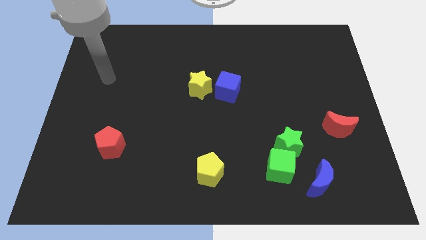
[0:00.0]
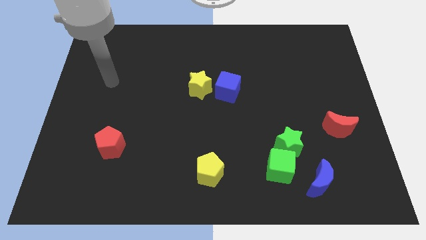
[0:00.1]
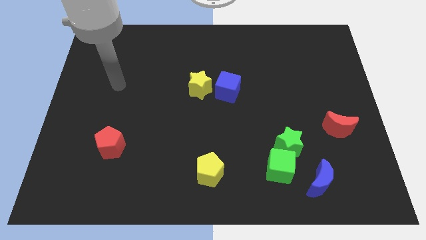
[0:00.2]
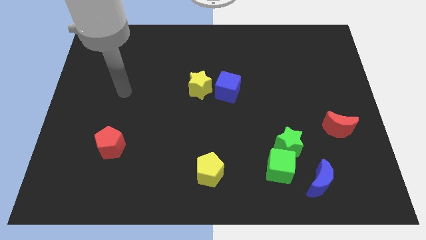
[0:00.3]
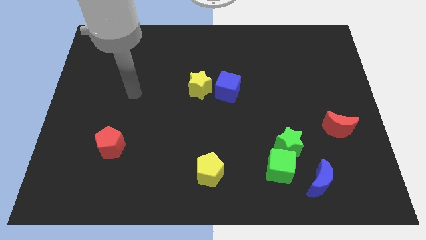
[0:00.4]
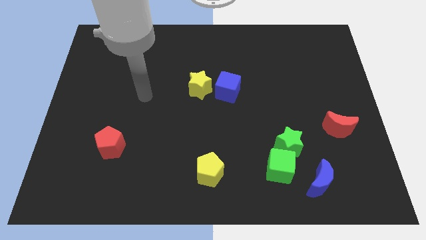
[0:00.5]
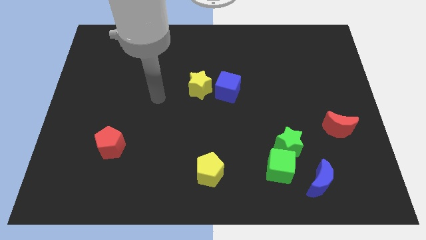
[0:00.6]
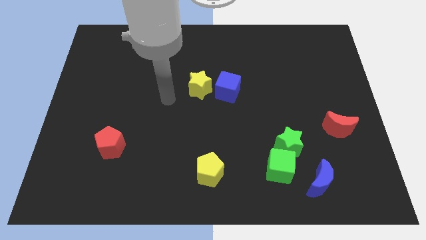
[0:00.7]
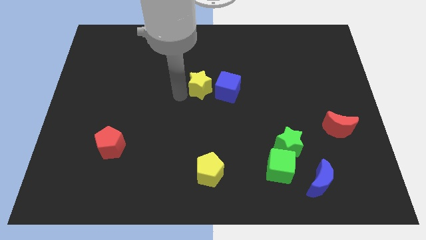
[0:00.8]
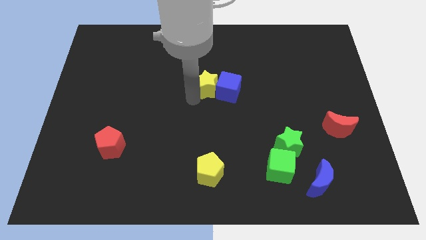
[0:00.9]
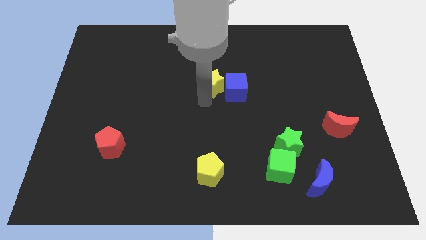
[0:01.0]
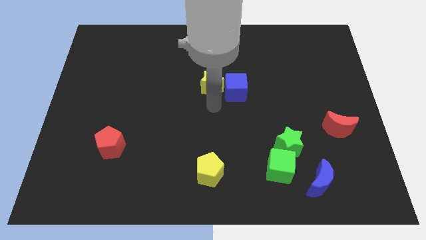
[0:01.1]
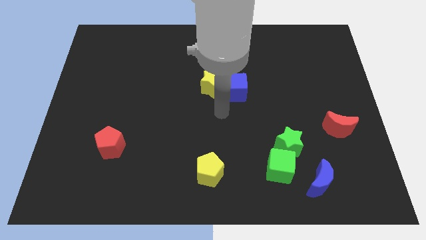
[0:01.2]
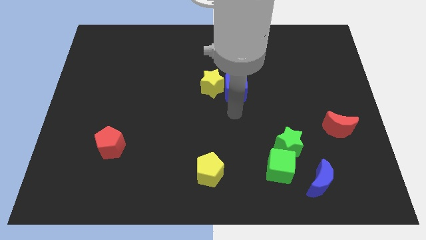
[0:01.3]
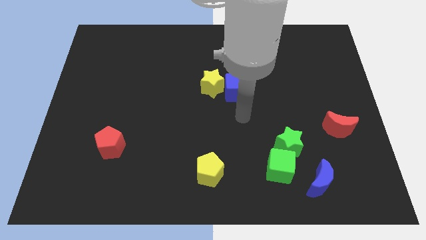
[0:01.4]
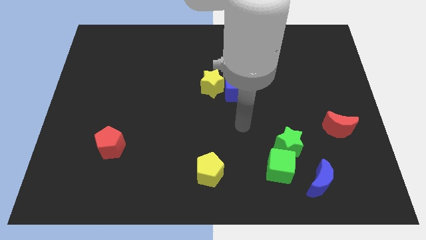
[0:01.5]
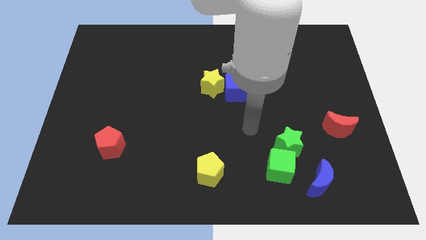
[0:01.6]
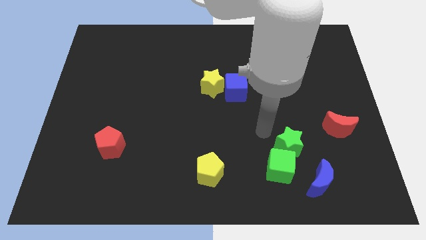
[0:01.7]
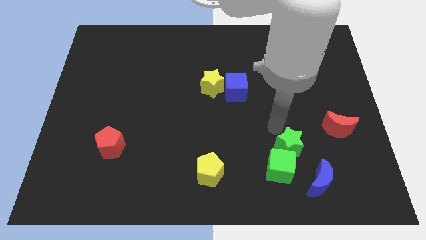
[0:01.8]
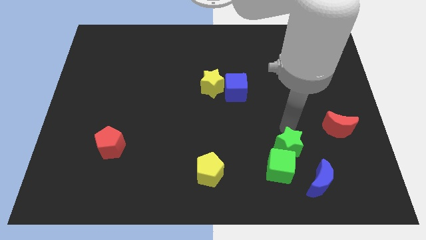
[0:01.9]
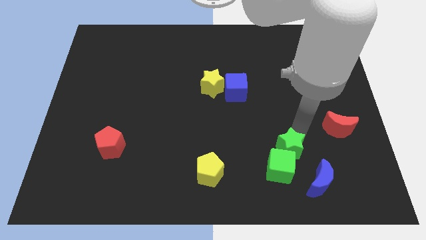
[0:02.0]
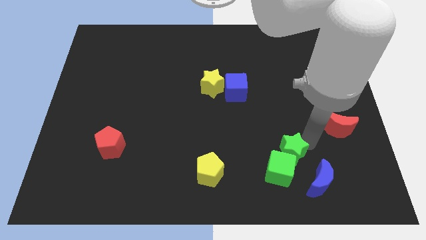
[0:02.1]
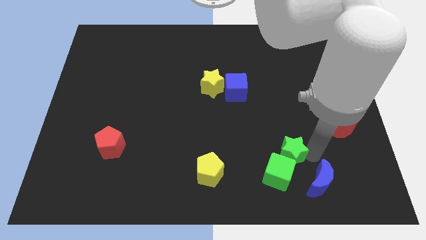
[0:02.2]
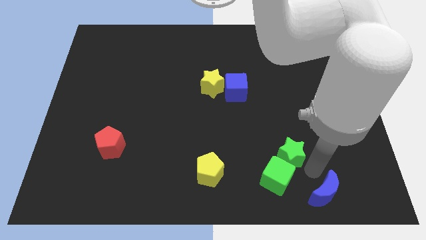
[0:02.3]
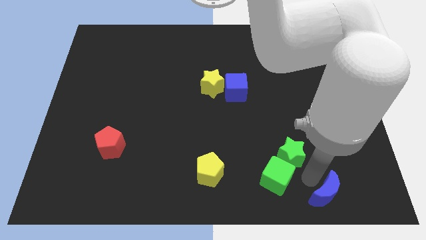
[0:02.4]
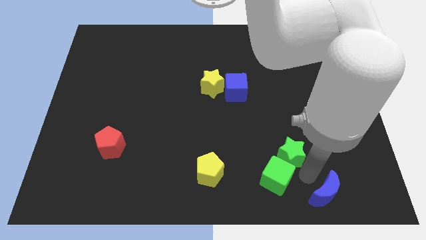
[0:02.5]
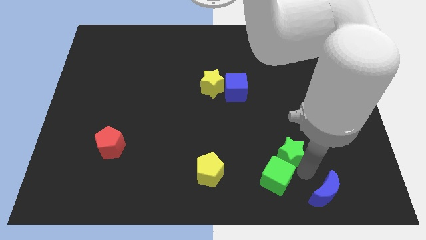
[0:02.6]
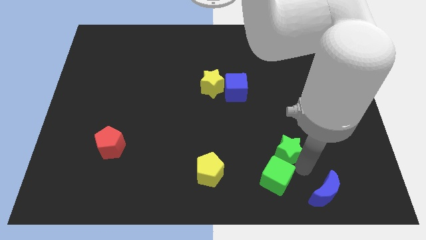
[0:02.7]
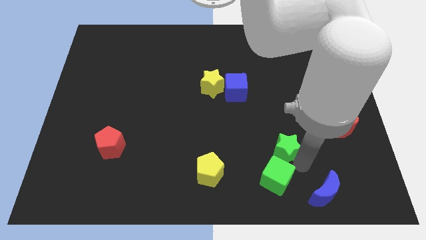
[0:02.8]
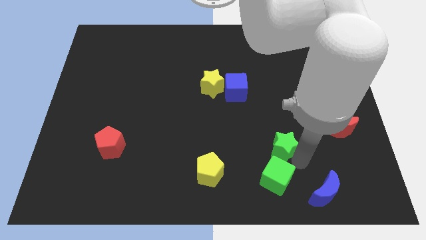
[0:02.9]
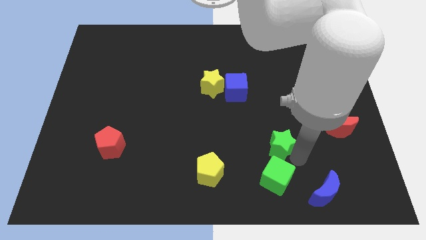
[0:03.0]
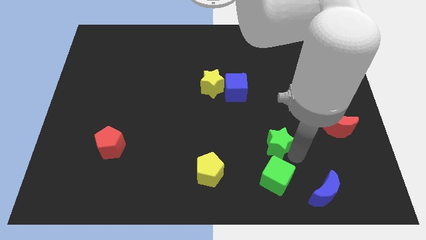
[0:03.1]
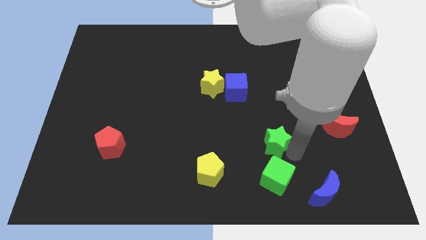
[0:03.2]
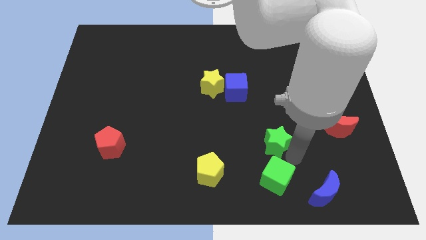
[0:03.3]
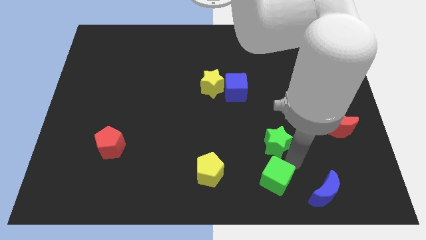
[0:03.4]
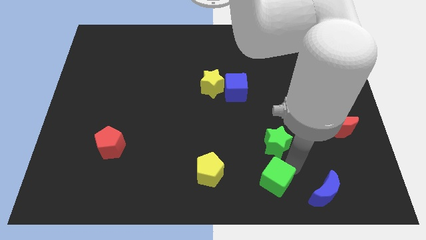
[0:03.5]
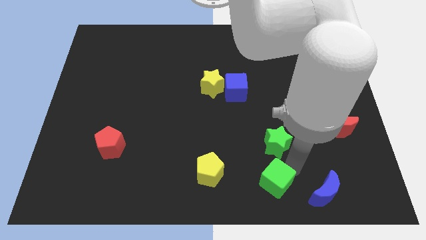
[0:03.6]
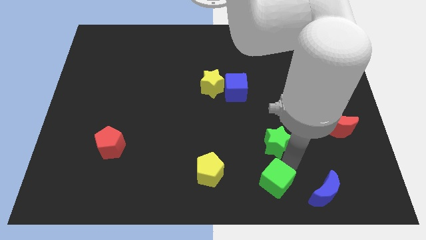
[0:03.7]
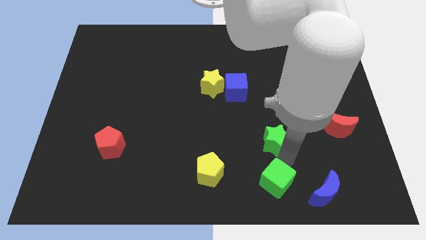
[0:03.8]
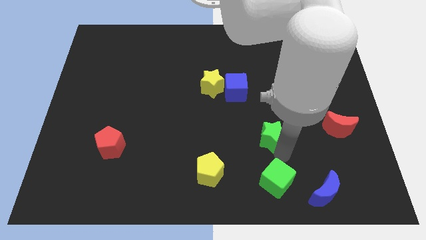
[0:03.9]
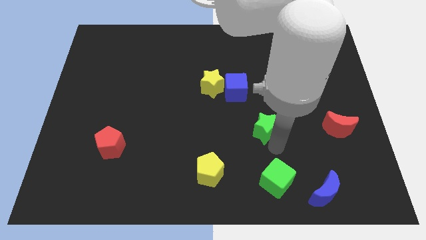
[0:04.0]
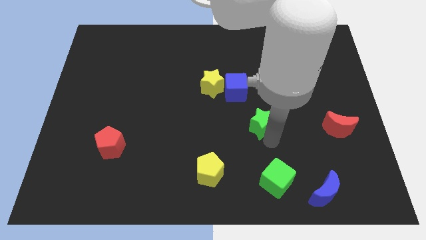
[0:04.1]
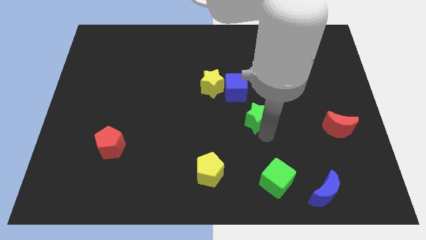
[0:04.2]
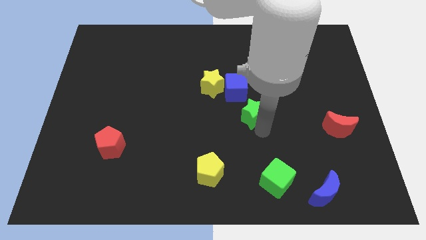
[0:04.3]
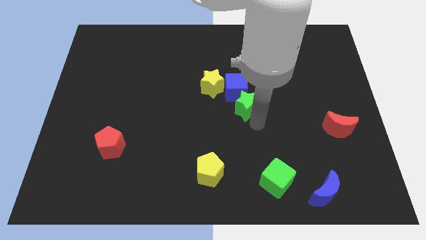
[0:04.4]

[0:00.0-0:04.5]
slide the green star next to the blue cube

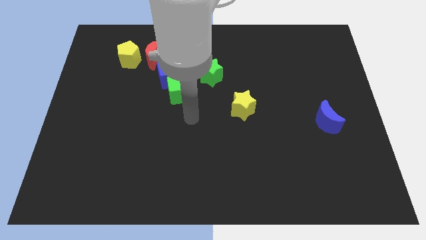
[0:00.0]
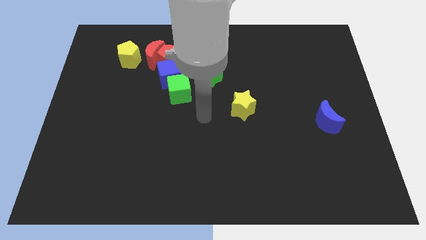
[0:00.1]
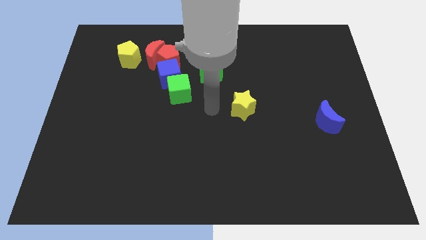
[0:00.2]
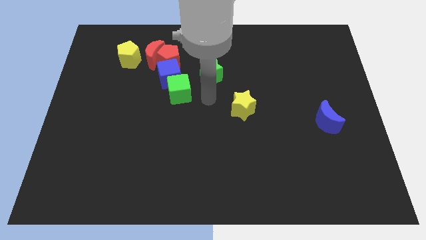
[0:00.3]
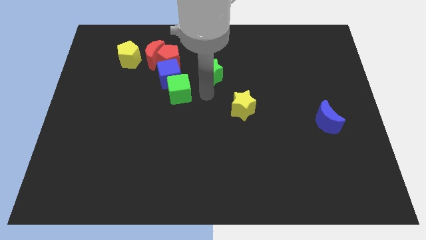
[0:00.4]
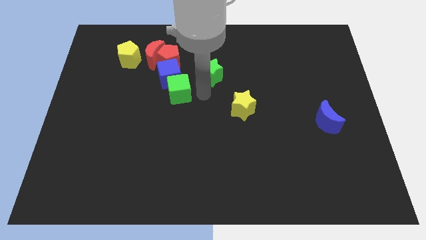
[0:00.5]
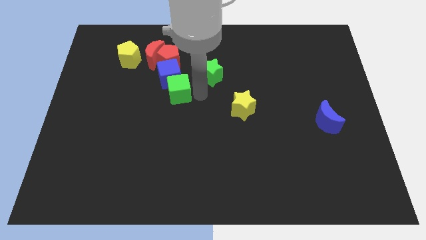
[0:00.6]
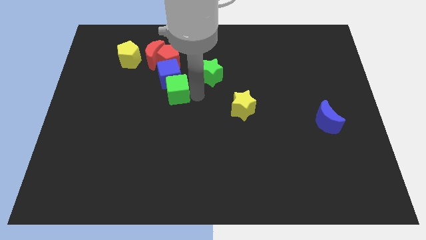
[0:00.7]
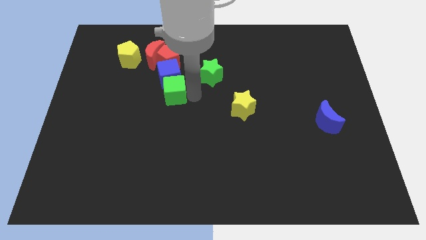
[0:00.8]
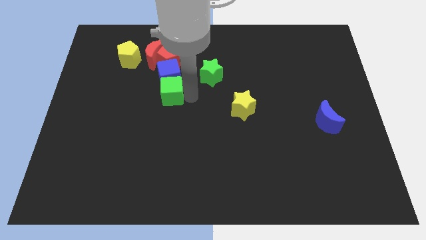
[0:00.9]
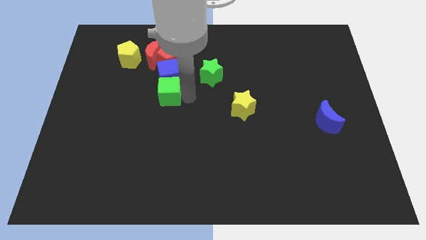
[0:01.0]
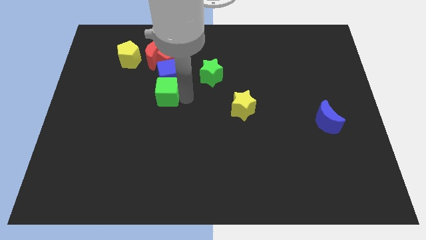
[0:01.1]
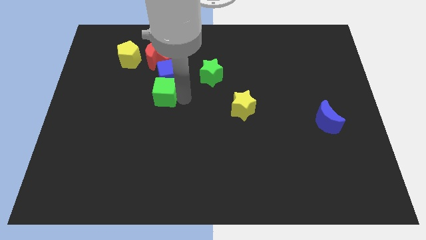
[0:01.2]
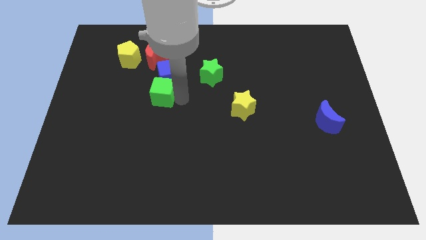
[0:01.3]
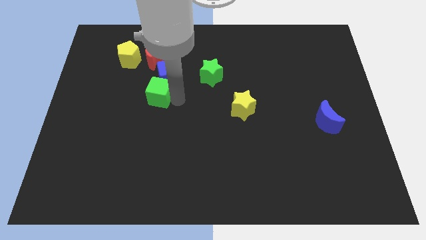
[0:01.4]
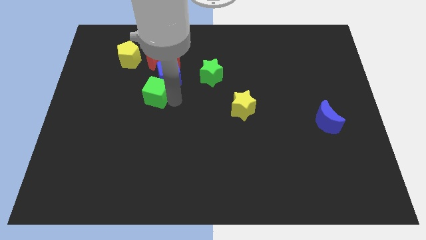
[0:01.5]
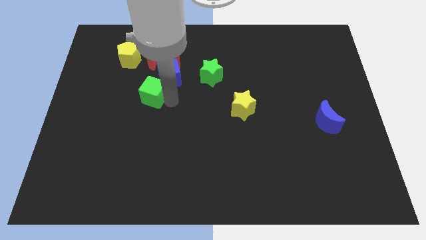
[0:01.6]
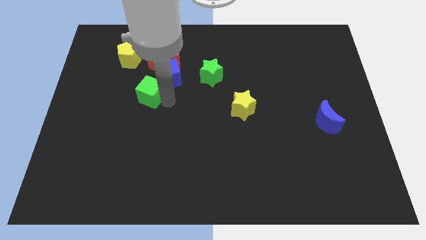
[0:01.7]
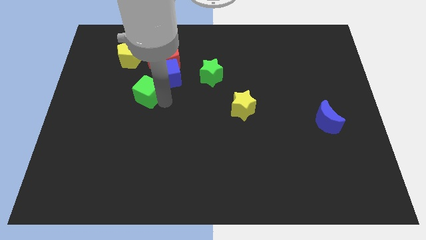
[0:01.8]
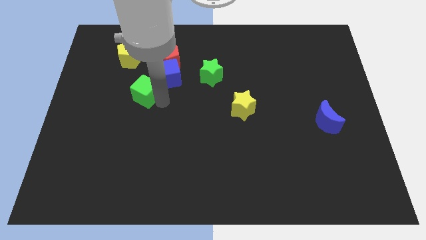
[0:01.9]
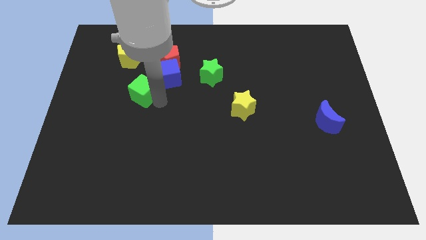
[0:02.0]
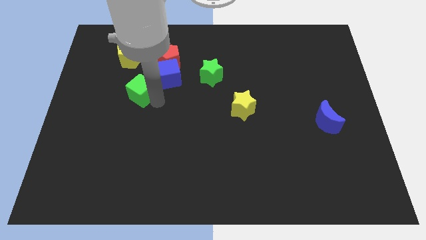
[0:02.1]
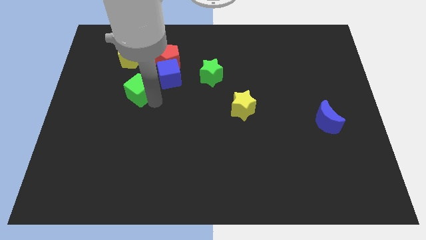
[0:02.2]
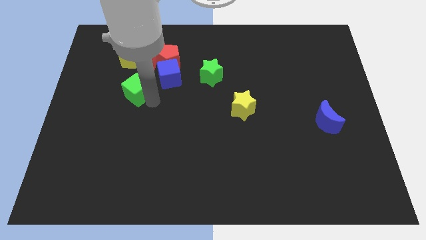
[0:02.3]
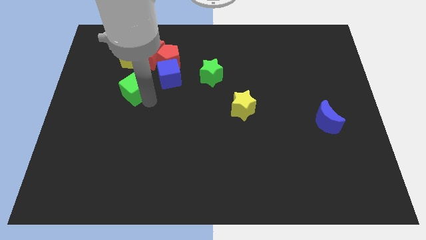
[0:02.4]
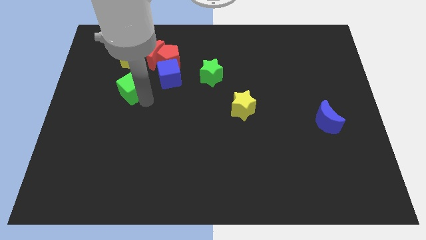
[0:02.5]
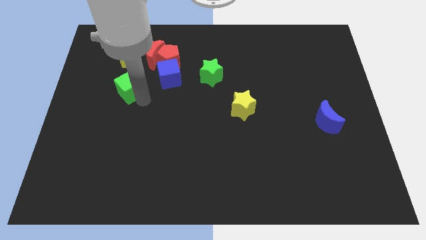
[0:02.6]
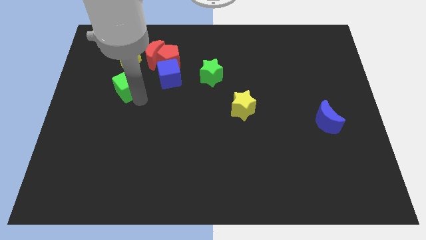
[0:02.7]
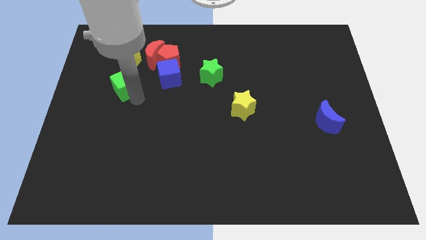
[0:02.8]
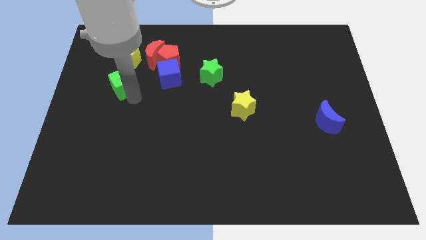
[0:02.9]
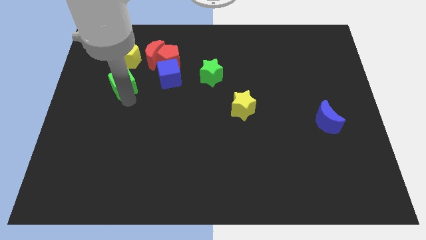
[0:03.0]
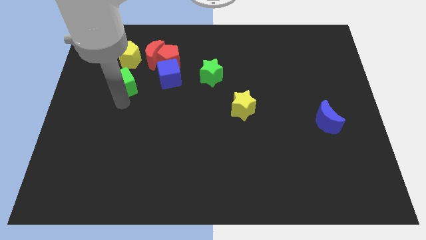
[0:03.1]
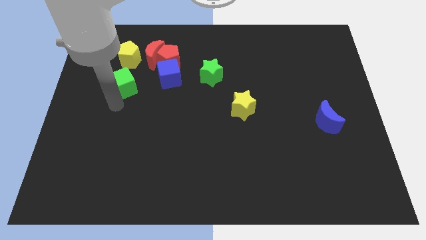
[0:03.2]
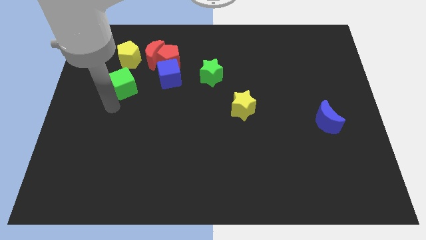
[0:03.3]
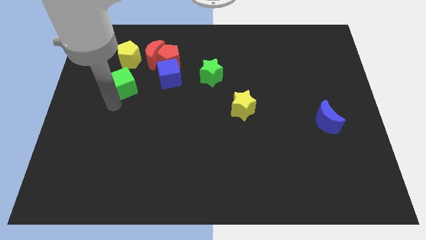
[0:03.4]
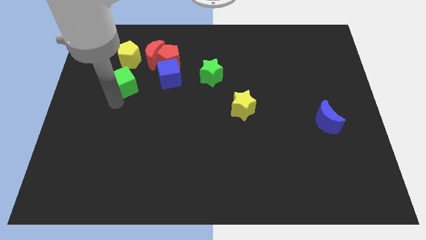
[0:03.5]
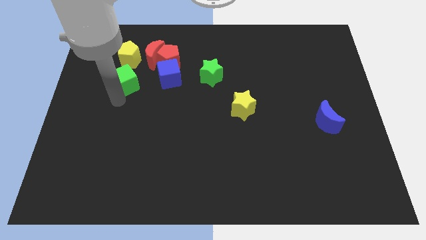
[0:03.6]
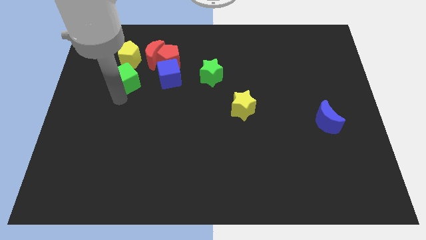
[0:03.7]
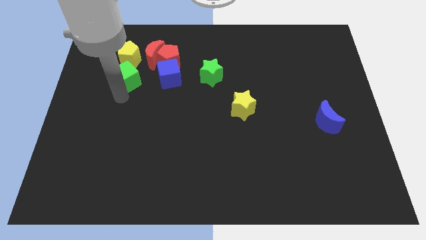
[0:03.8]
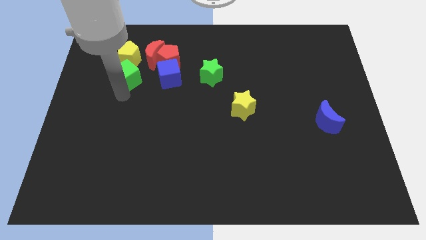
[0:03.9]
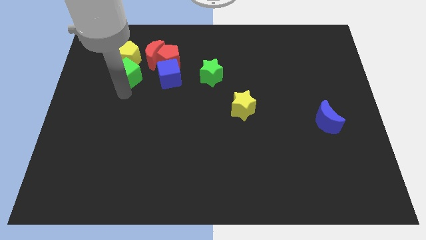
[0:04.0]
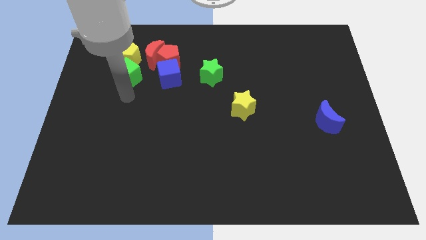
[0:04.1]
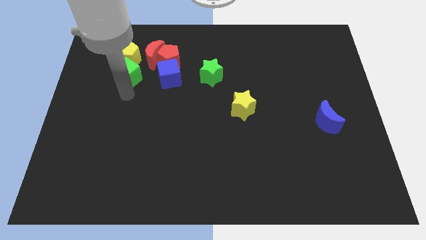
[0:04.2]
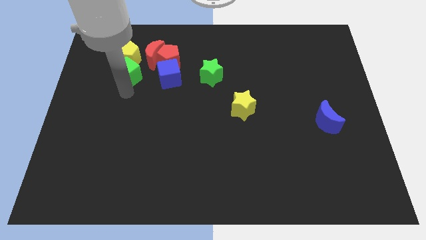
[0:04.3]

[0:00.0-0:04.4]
put the green cube to the yellow pentagon
